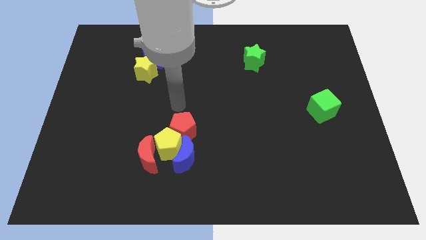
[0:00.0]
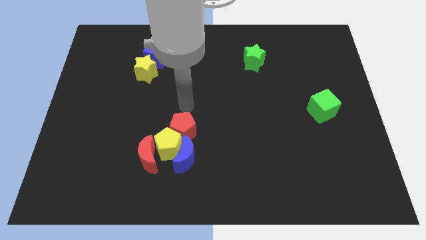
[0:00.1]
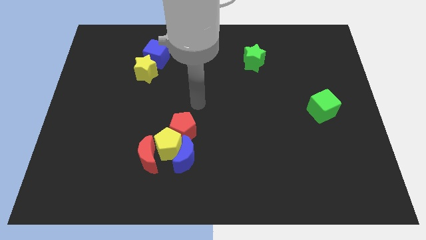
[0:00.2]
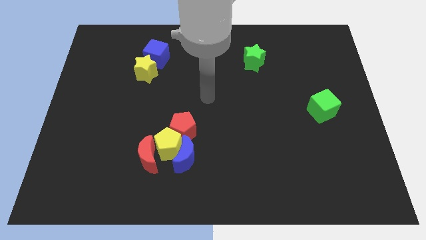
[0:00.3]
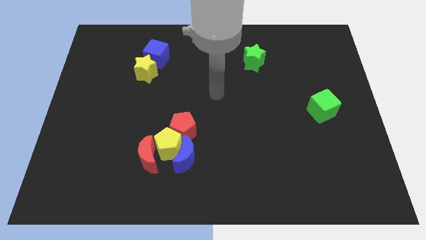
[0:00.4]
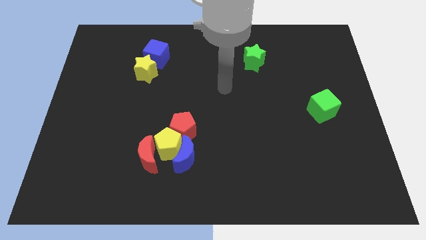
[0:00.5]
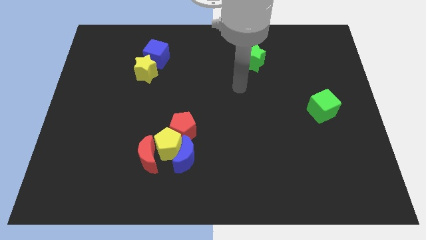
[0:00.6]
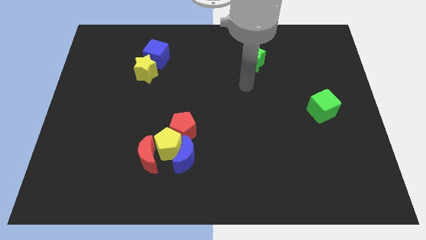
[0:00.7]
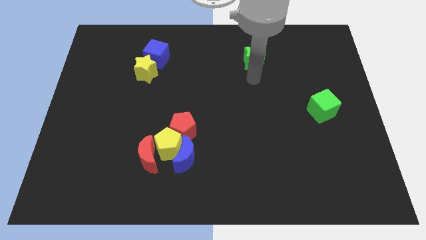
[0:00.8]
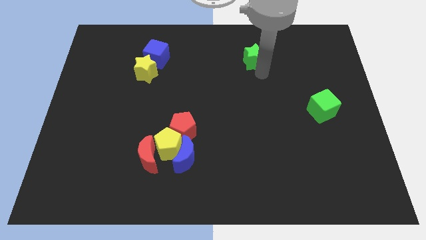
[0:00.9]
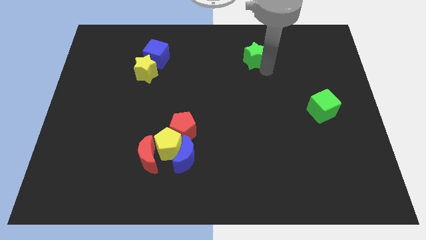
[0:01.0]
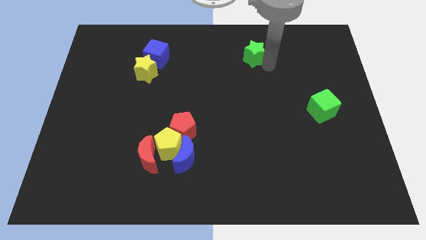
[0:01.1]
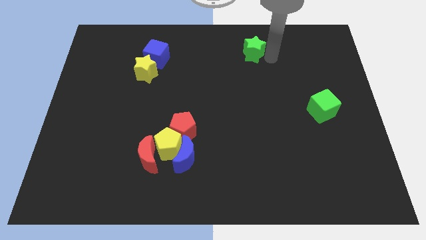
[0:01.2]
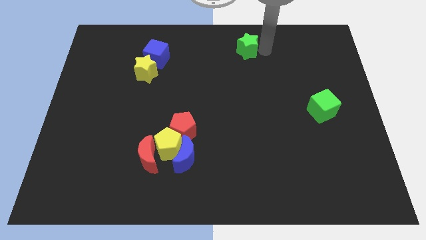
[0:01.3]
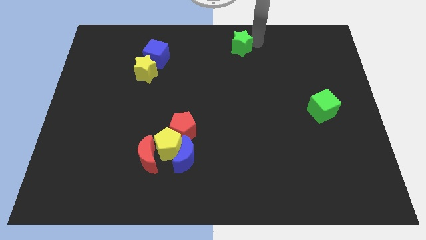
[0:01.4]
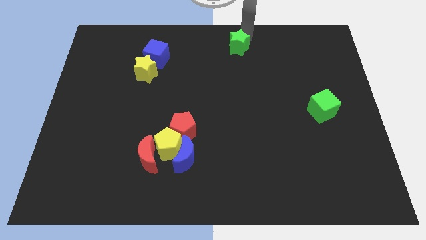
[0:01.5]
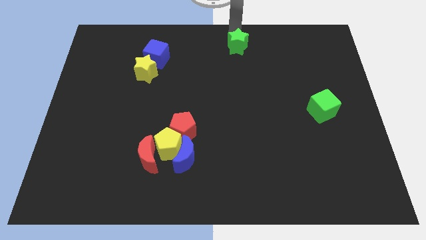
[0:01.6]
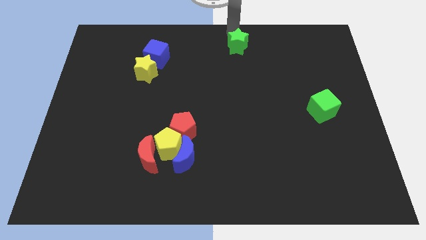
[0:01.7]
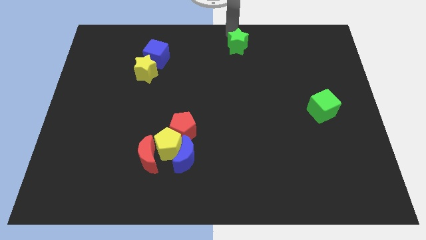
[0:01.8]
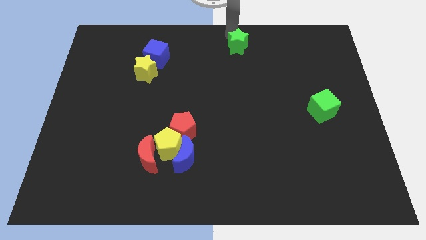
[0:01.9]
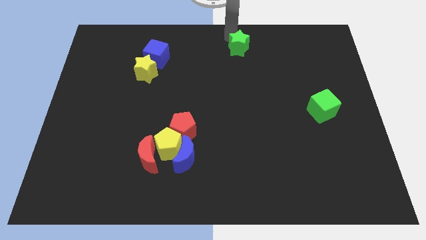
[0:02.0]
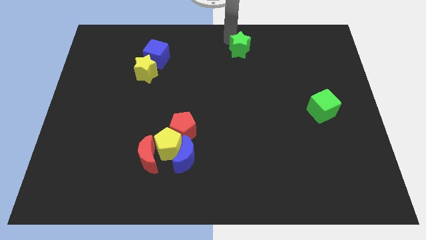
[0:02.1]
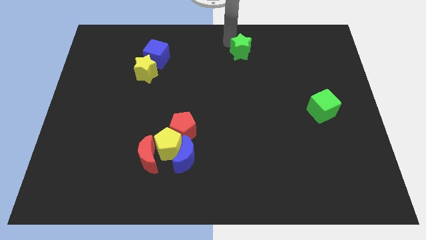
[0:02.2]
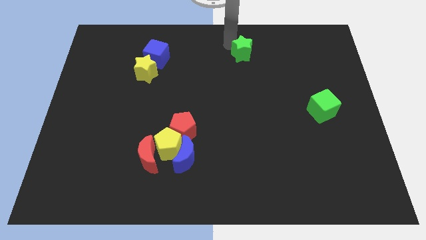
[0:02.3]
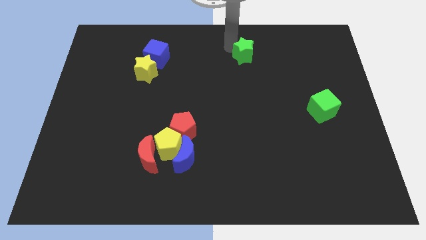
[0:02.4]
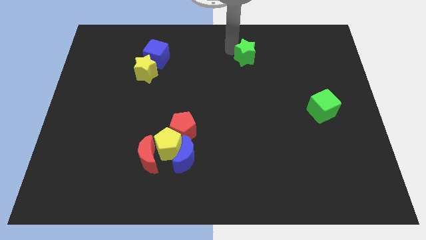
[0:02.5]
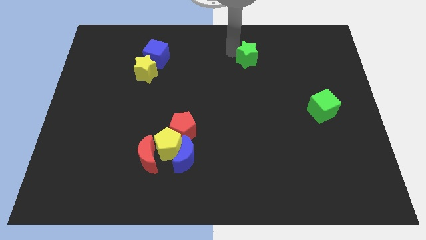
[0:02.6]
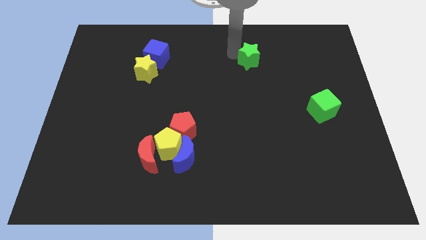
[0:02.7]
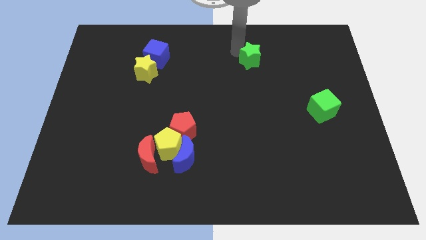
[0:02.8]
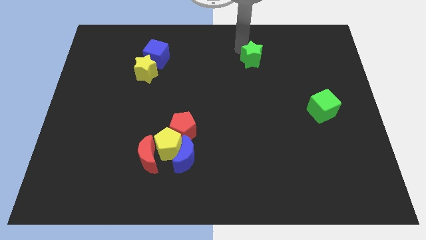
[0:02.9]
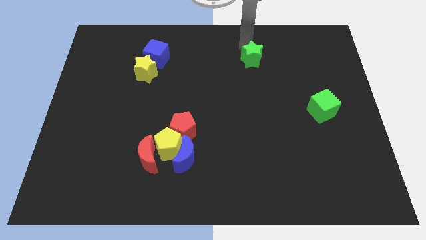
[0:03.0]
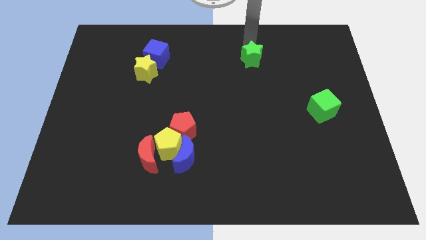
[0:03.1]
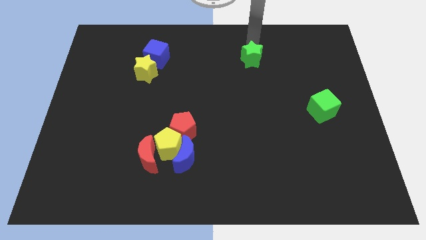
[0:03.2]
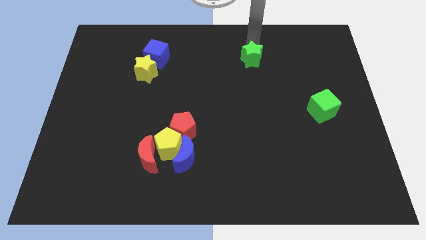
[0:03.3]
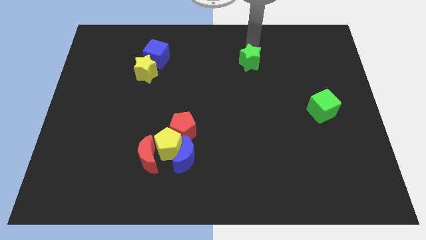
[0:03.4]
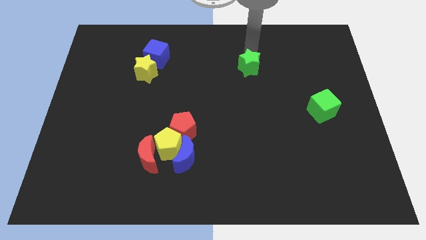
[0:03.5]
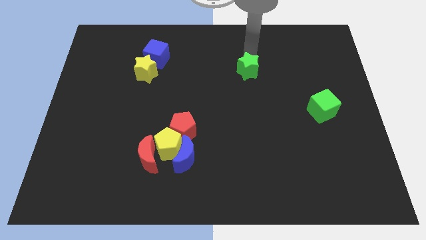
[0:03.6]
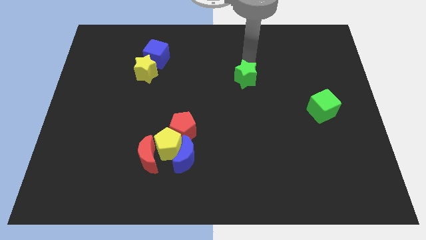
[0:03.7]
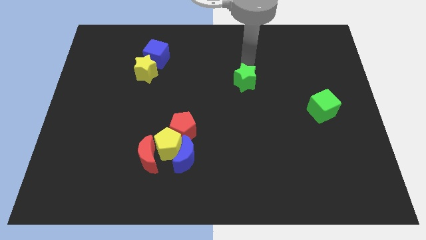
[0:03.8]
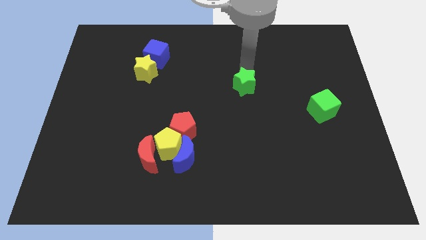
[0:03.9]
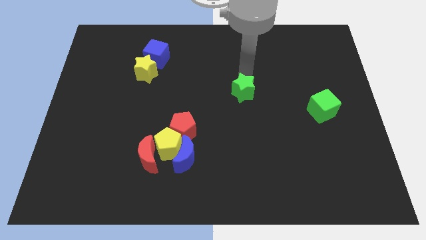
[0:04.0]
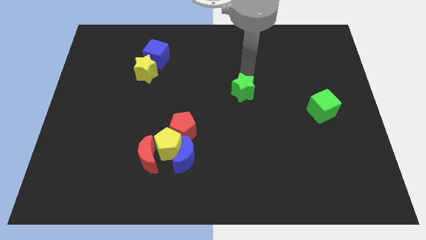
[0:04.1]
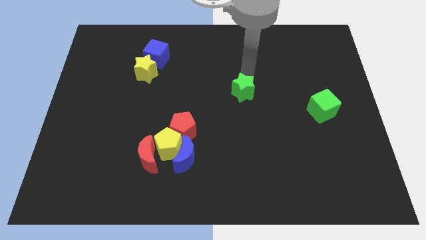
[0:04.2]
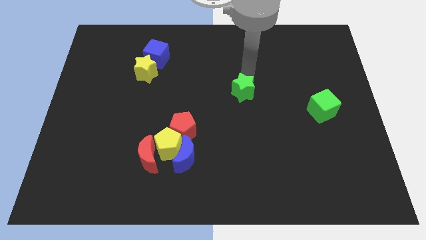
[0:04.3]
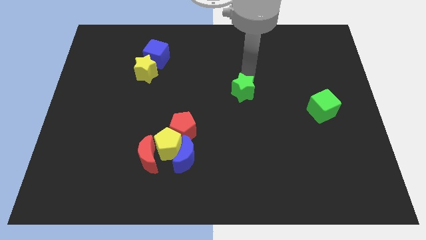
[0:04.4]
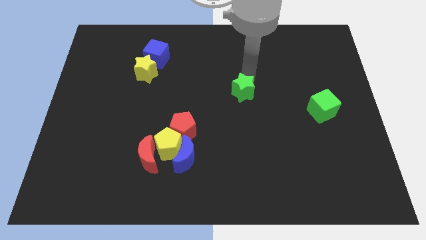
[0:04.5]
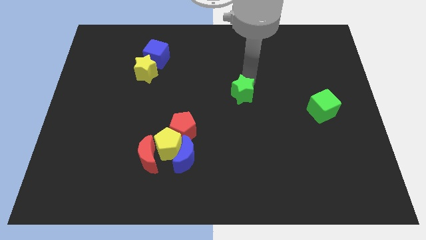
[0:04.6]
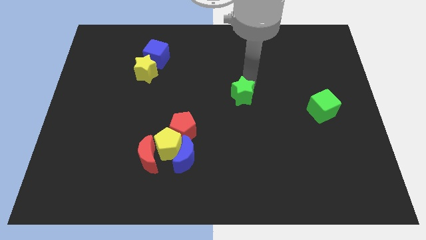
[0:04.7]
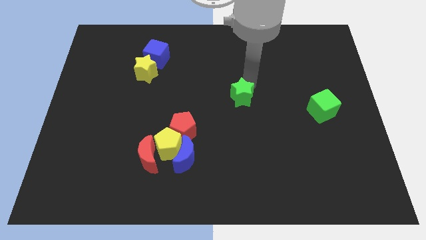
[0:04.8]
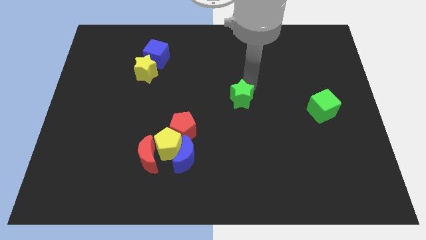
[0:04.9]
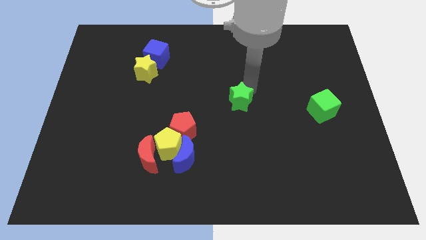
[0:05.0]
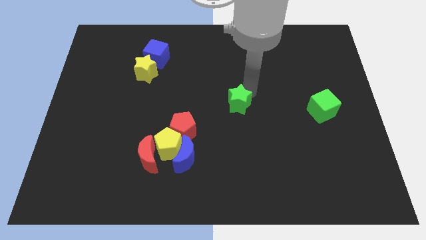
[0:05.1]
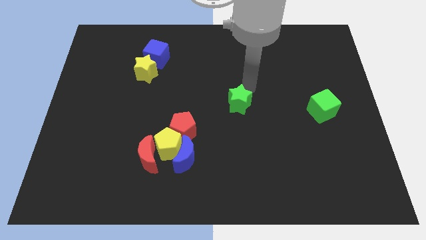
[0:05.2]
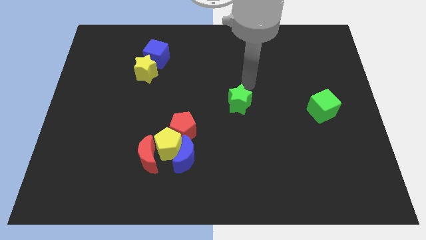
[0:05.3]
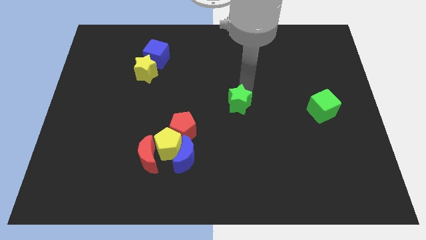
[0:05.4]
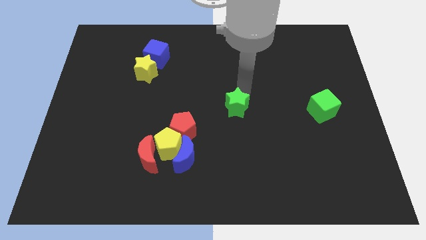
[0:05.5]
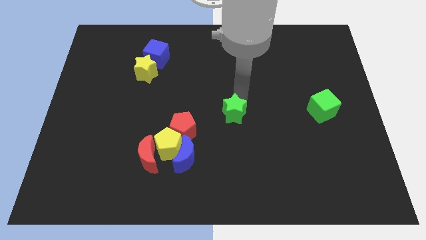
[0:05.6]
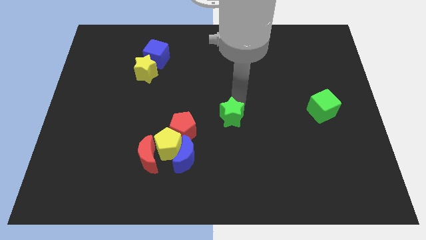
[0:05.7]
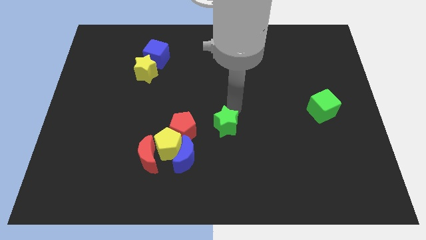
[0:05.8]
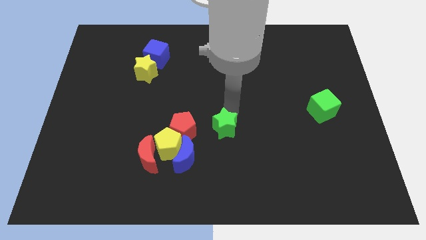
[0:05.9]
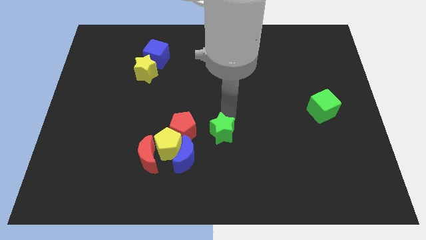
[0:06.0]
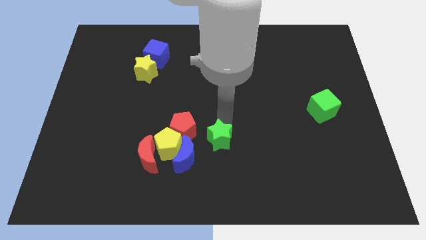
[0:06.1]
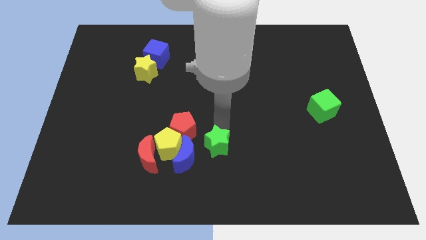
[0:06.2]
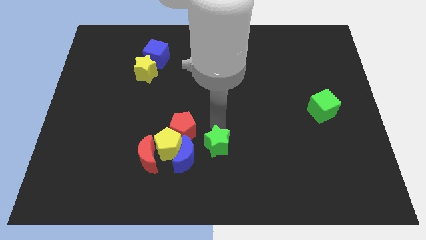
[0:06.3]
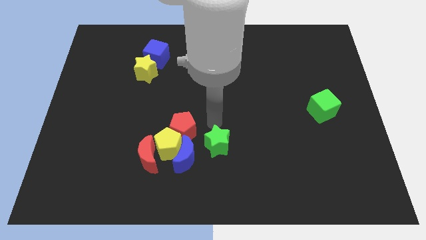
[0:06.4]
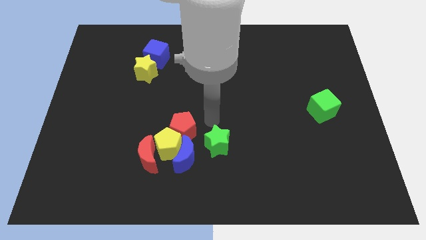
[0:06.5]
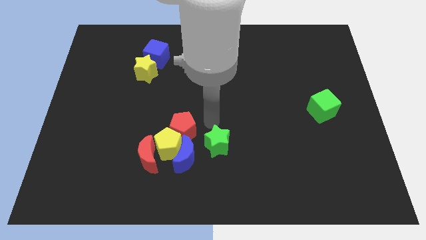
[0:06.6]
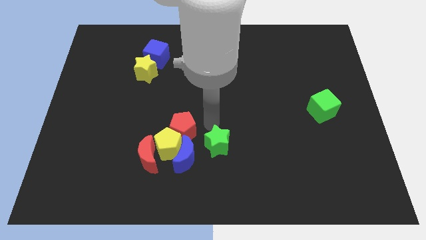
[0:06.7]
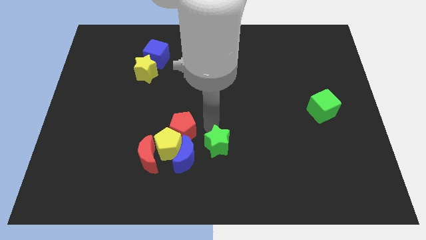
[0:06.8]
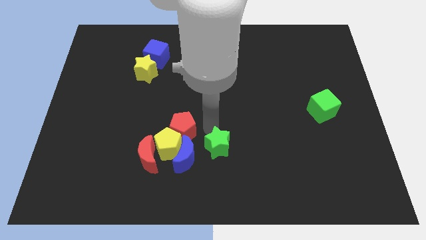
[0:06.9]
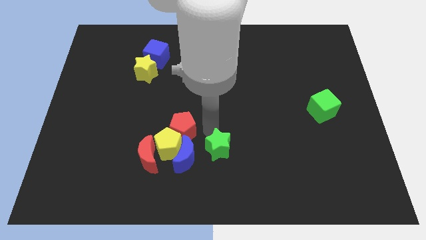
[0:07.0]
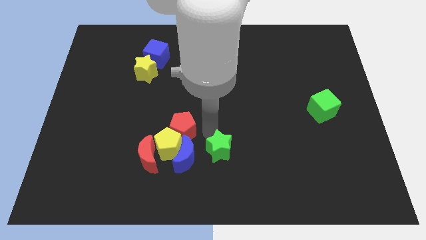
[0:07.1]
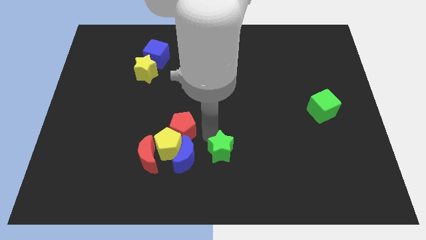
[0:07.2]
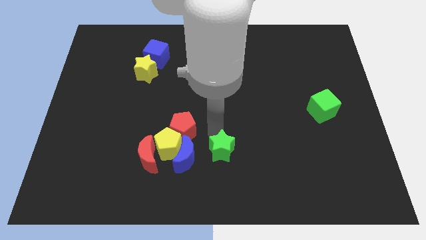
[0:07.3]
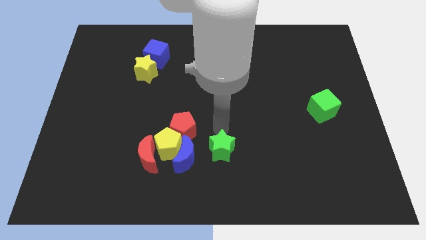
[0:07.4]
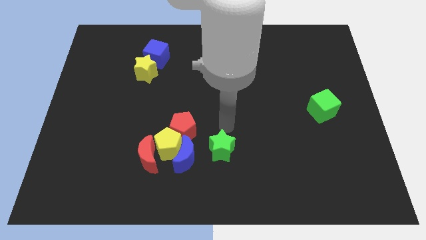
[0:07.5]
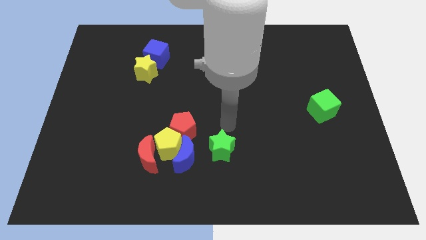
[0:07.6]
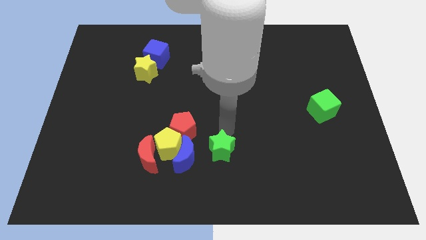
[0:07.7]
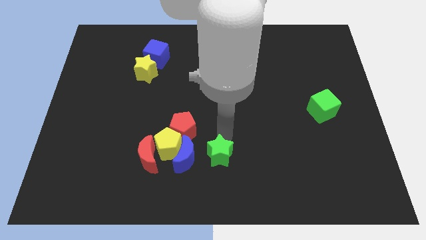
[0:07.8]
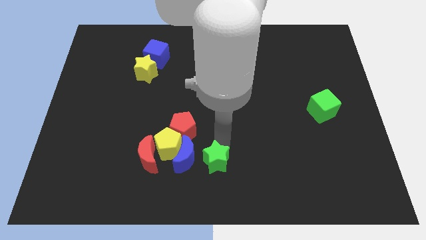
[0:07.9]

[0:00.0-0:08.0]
push the green star diagonally down and to the right of the blue moon
